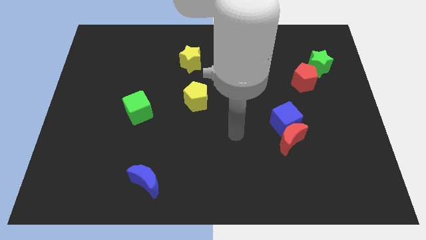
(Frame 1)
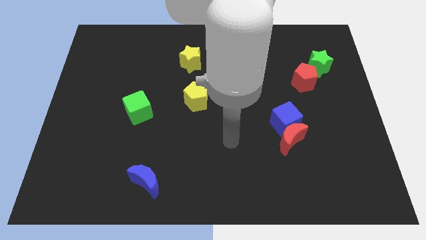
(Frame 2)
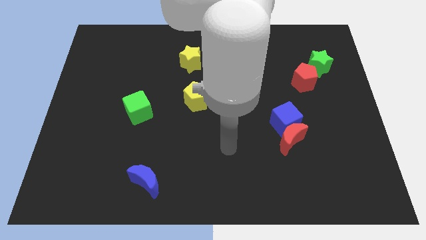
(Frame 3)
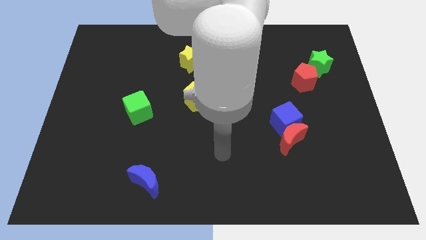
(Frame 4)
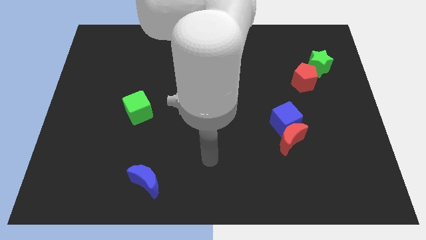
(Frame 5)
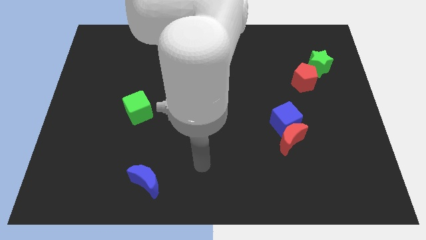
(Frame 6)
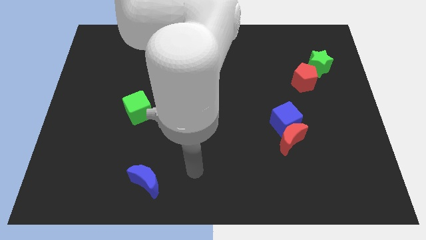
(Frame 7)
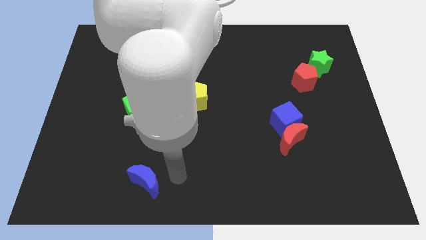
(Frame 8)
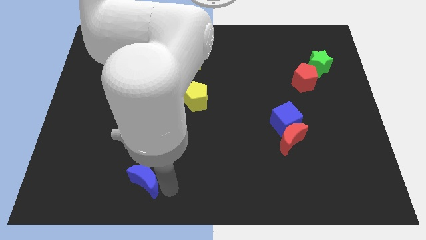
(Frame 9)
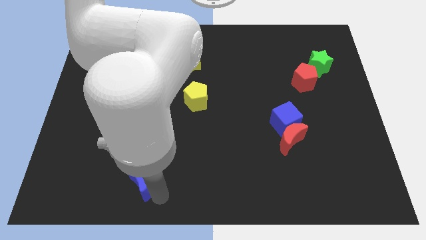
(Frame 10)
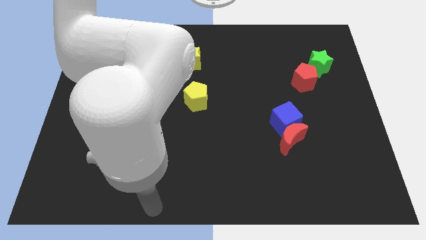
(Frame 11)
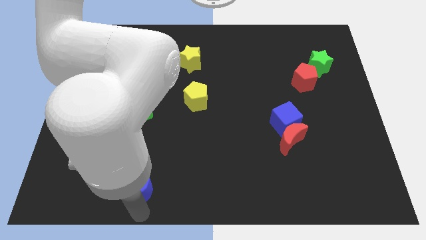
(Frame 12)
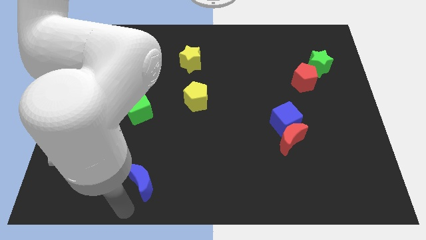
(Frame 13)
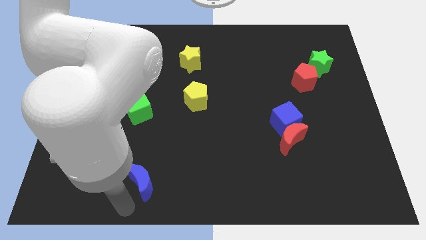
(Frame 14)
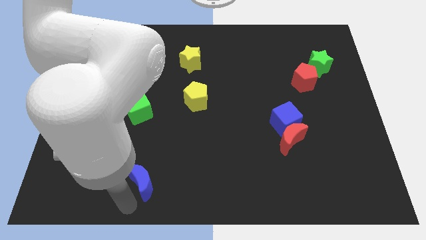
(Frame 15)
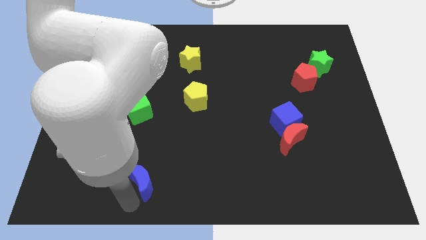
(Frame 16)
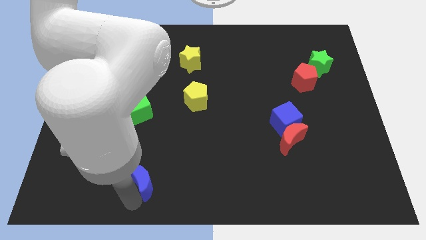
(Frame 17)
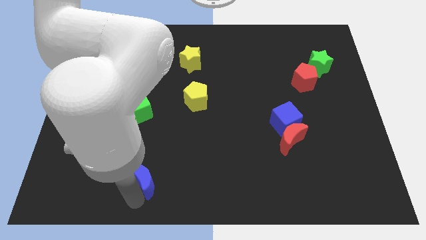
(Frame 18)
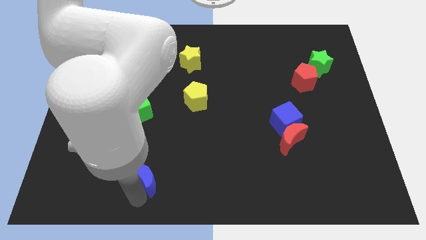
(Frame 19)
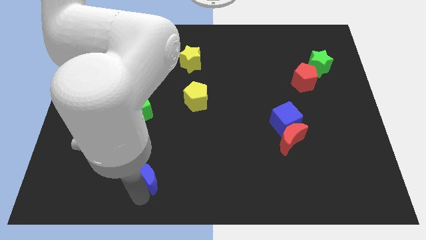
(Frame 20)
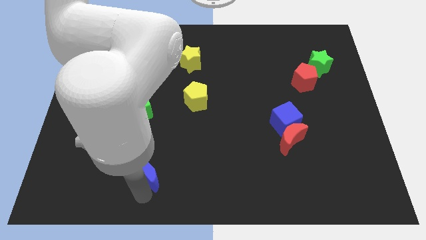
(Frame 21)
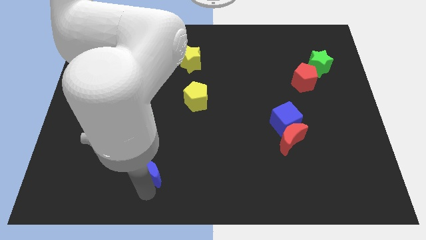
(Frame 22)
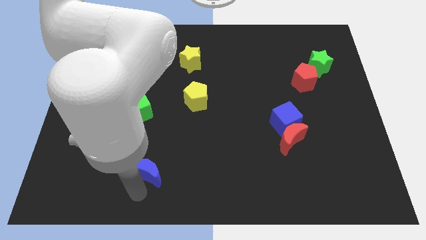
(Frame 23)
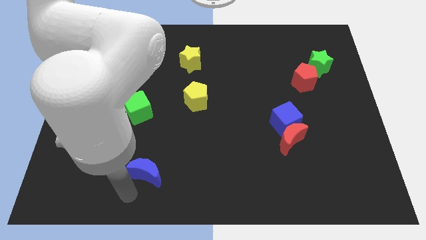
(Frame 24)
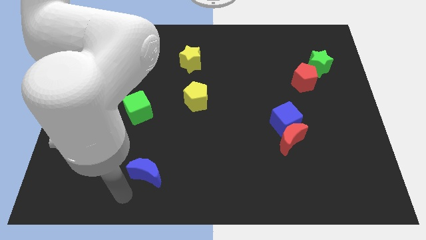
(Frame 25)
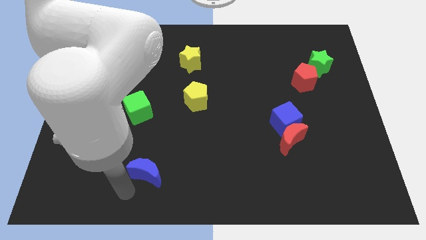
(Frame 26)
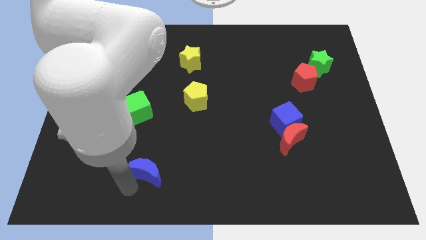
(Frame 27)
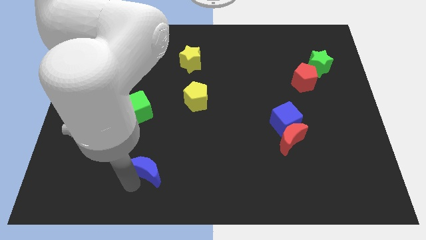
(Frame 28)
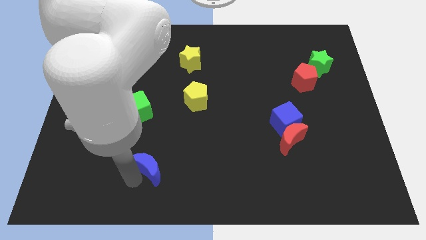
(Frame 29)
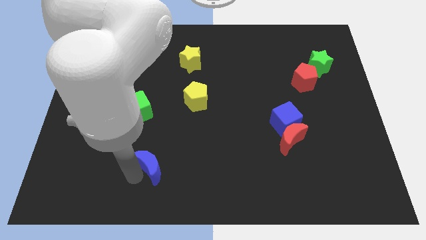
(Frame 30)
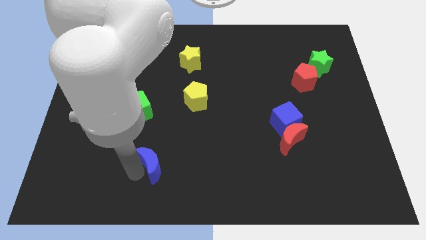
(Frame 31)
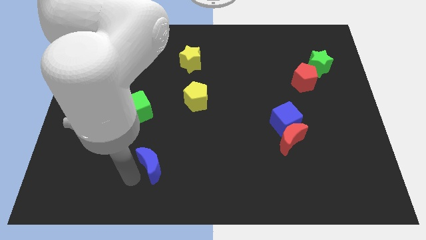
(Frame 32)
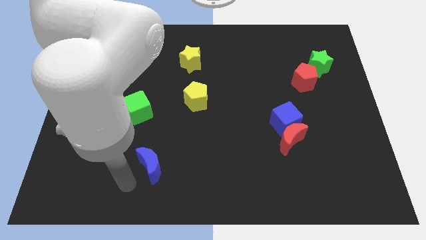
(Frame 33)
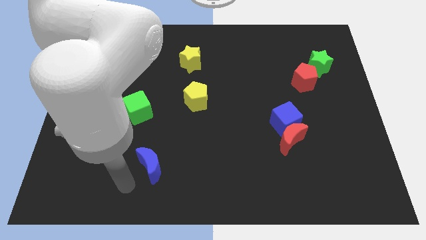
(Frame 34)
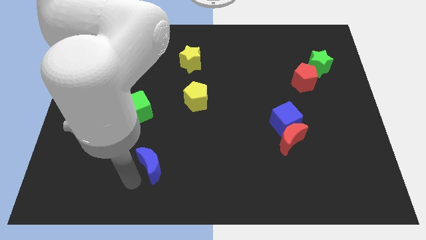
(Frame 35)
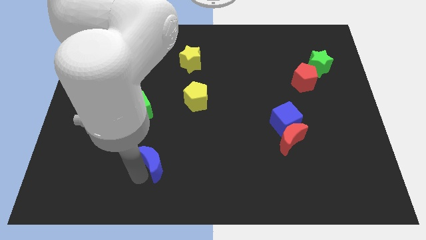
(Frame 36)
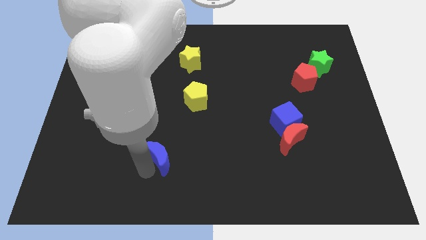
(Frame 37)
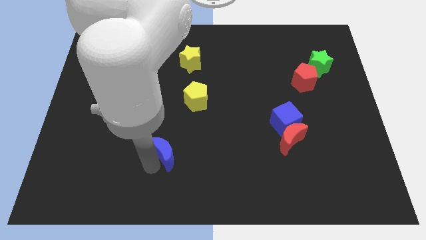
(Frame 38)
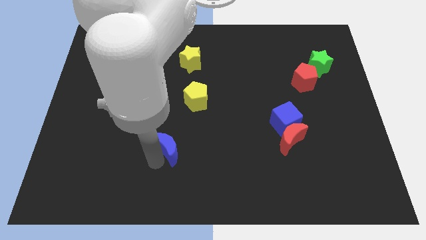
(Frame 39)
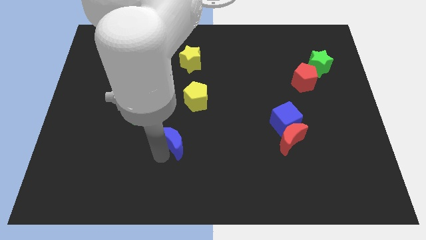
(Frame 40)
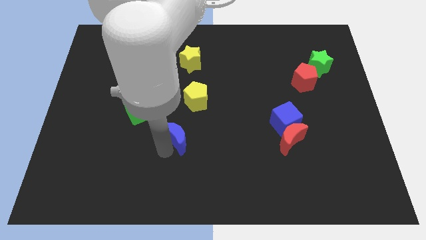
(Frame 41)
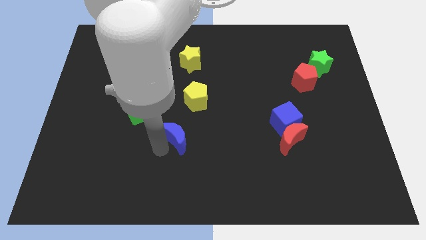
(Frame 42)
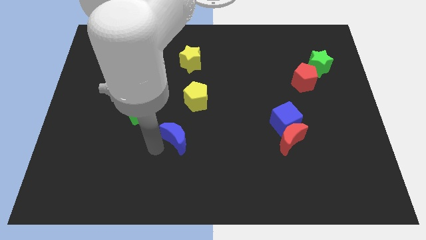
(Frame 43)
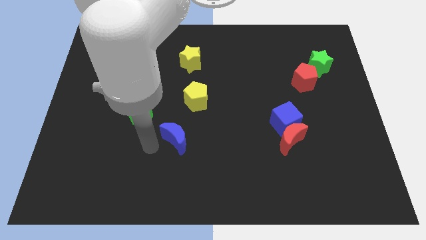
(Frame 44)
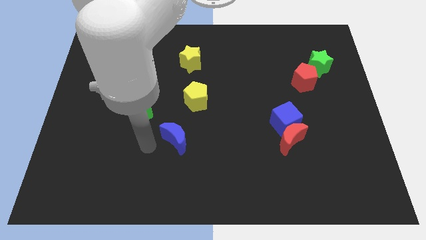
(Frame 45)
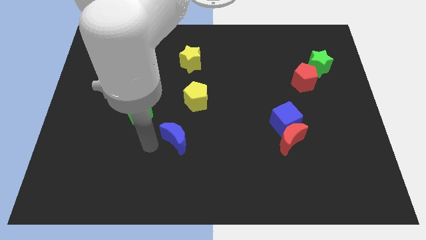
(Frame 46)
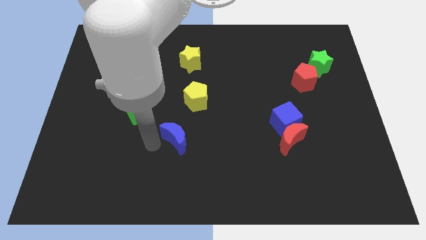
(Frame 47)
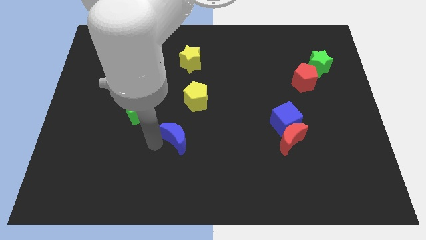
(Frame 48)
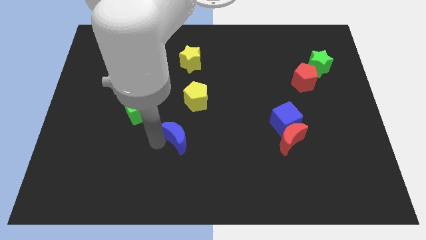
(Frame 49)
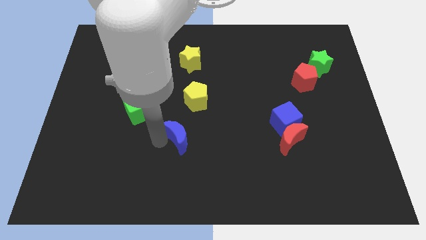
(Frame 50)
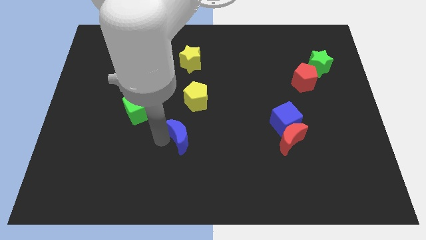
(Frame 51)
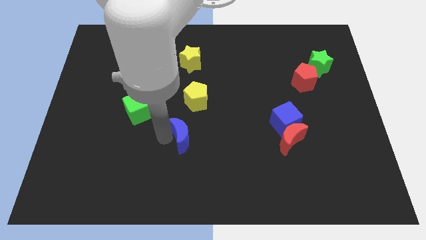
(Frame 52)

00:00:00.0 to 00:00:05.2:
move the blue moon to the middle of the board

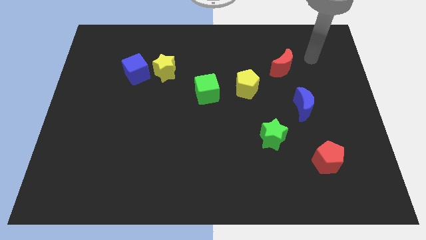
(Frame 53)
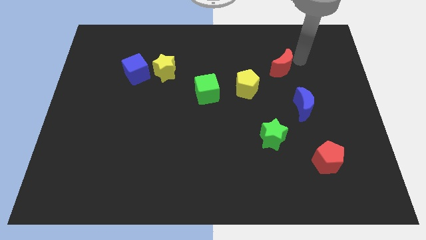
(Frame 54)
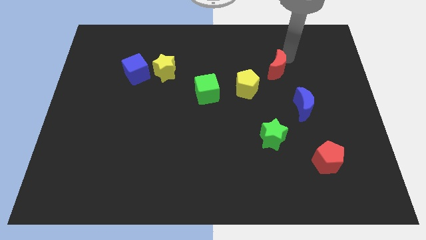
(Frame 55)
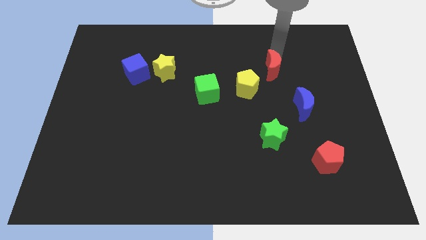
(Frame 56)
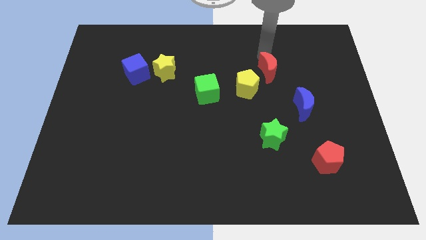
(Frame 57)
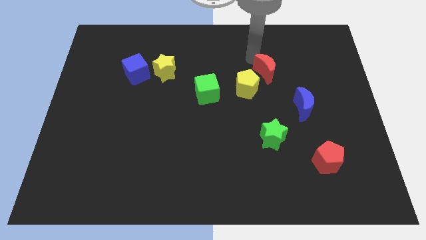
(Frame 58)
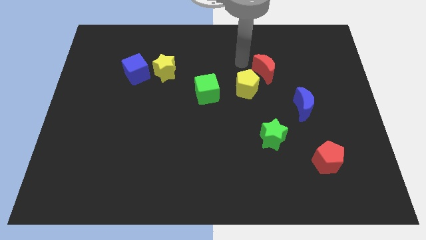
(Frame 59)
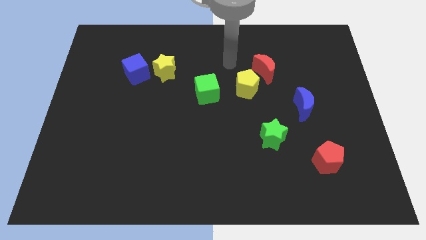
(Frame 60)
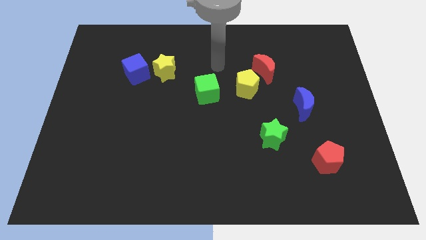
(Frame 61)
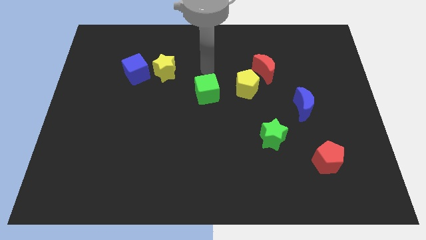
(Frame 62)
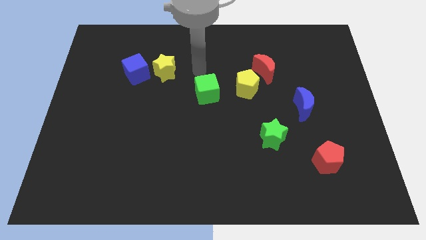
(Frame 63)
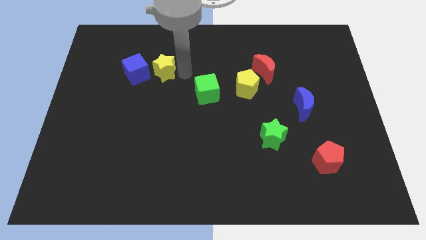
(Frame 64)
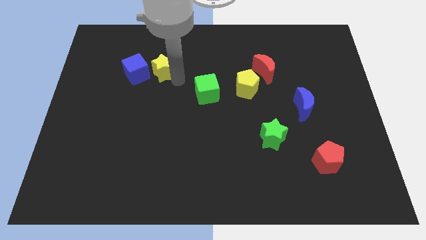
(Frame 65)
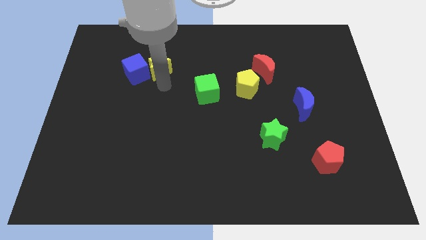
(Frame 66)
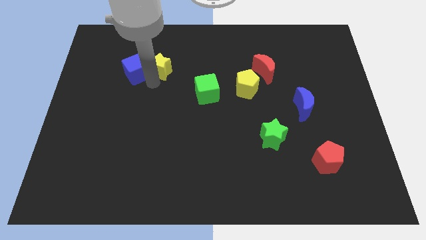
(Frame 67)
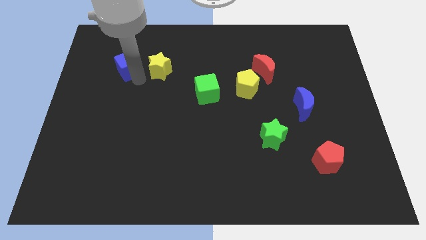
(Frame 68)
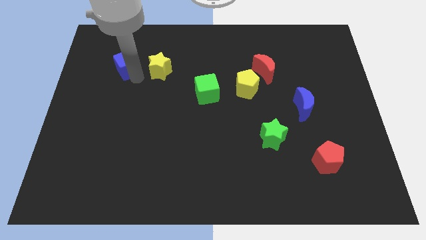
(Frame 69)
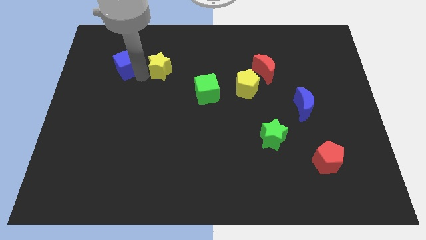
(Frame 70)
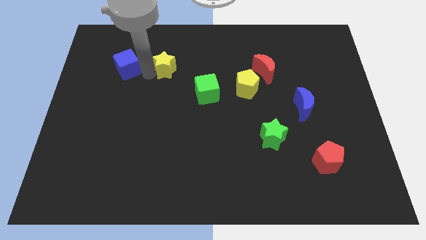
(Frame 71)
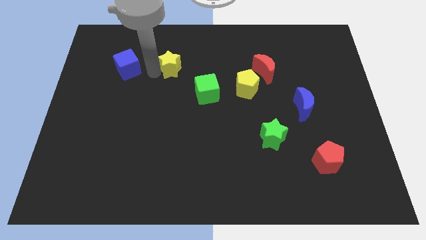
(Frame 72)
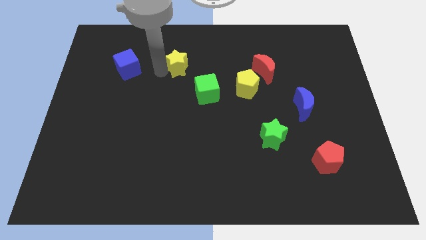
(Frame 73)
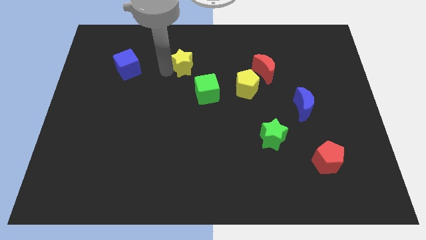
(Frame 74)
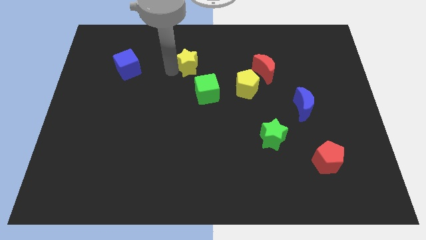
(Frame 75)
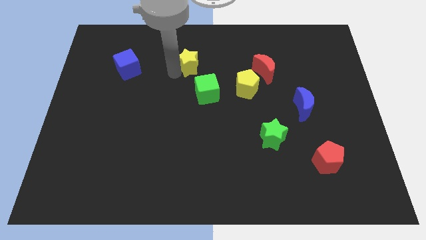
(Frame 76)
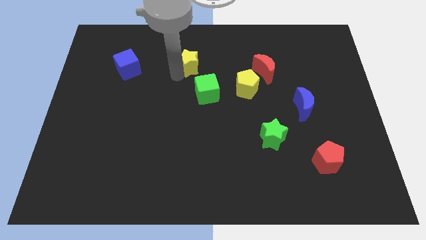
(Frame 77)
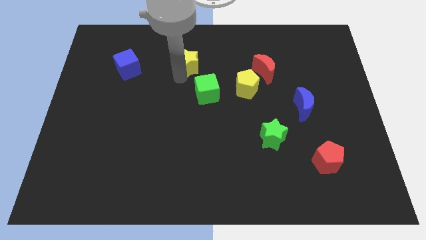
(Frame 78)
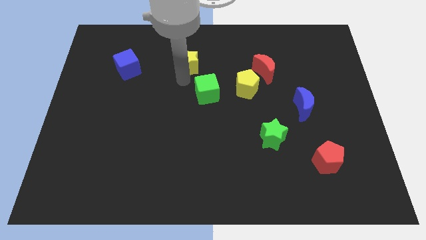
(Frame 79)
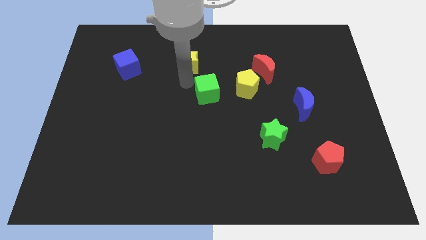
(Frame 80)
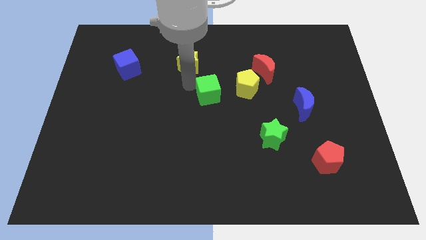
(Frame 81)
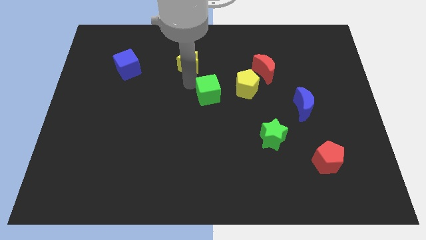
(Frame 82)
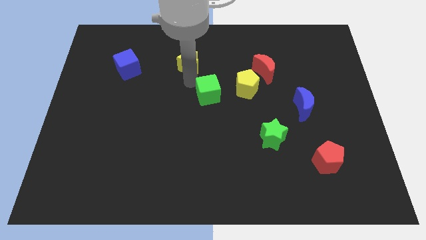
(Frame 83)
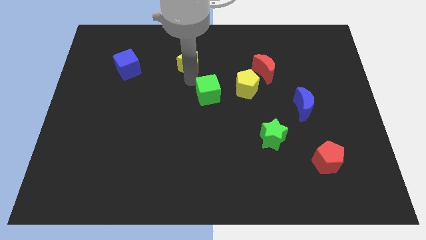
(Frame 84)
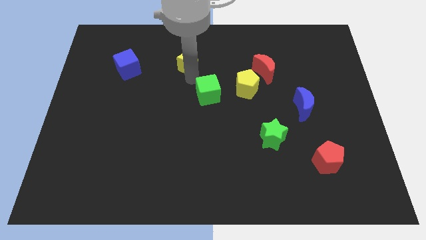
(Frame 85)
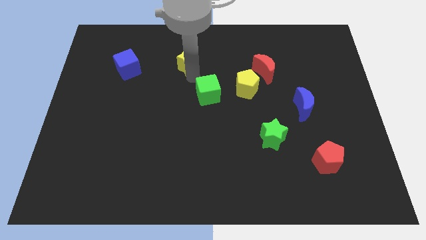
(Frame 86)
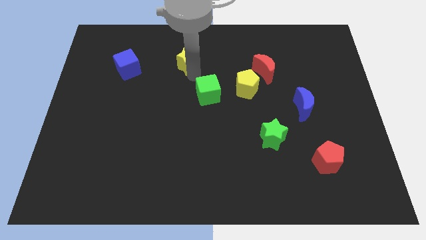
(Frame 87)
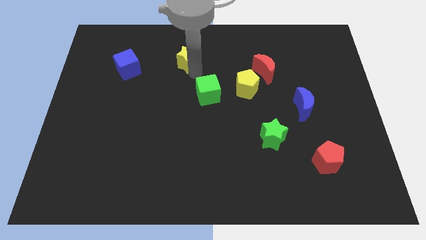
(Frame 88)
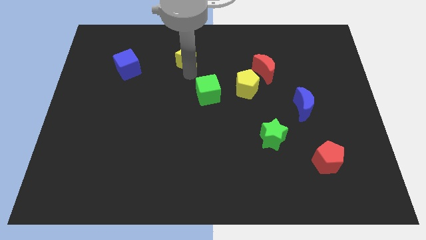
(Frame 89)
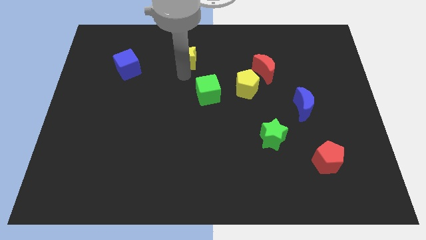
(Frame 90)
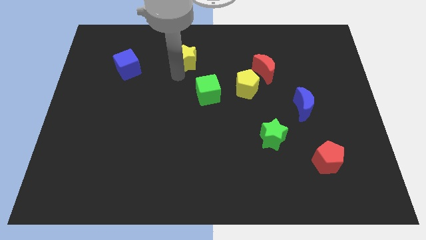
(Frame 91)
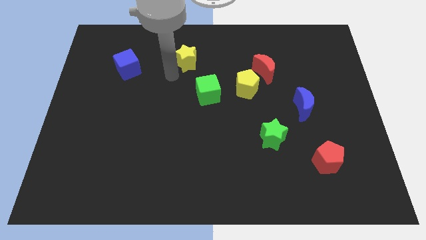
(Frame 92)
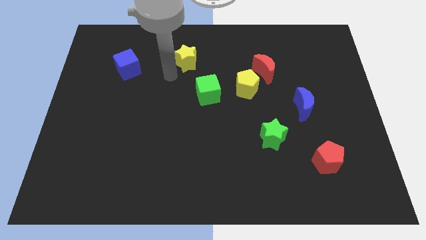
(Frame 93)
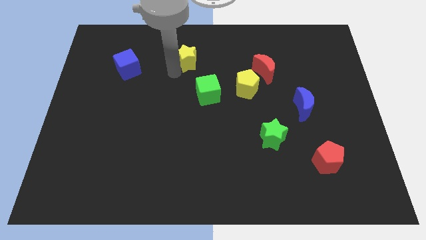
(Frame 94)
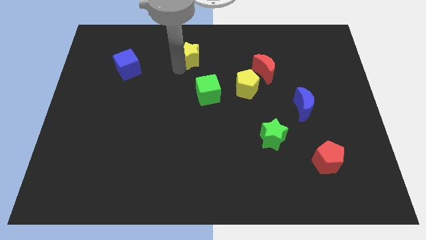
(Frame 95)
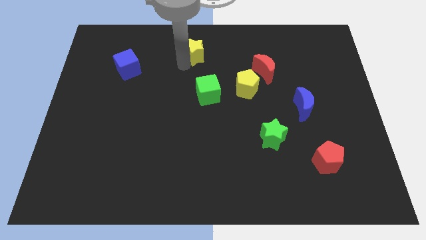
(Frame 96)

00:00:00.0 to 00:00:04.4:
put the yellow star to the top side
